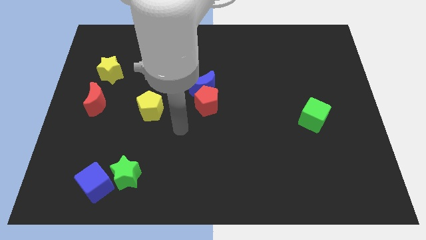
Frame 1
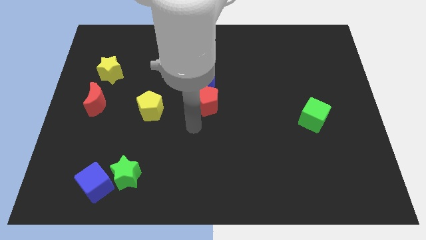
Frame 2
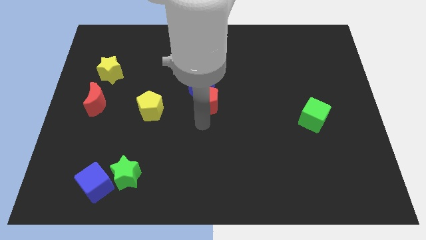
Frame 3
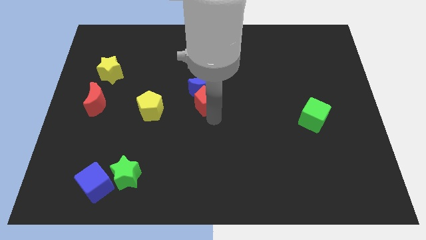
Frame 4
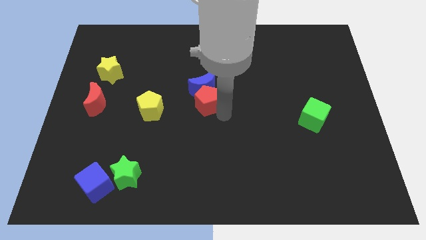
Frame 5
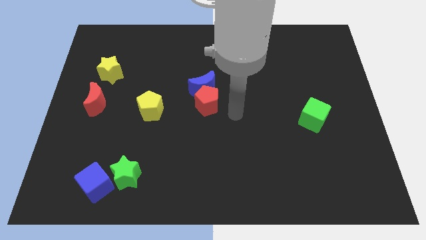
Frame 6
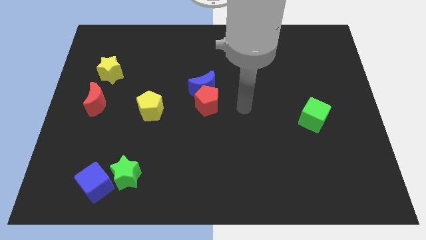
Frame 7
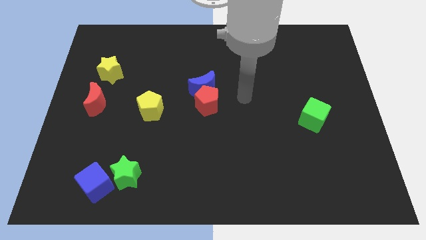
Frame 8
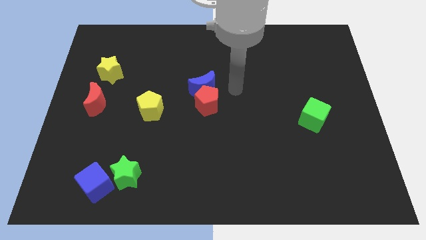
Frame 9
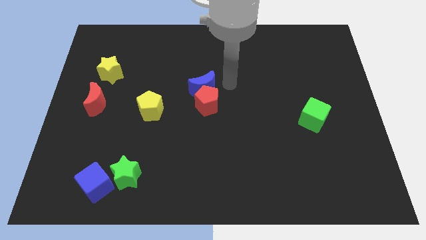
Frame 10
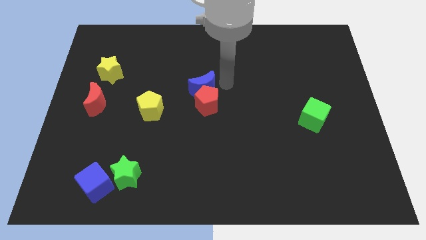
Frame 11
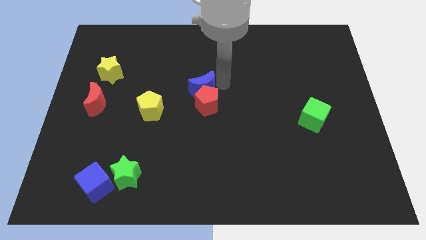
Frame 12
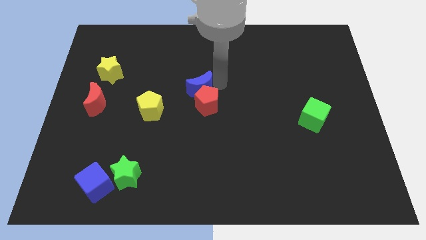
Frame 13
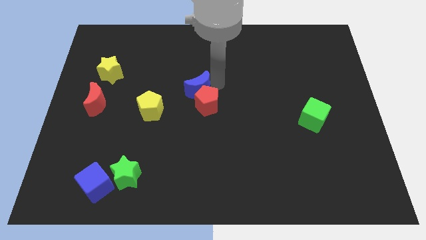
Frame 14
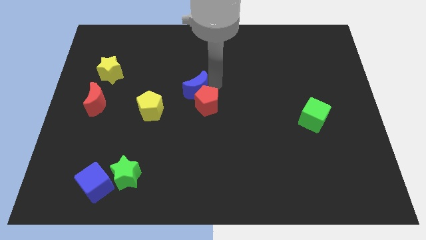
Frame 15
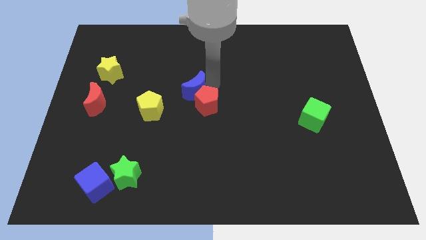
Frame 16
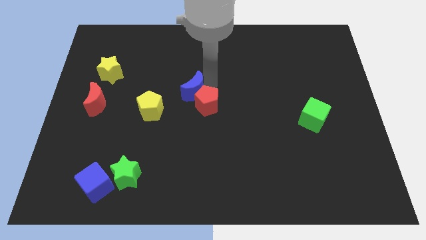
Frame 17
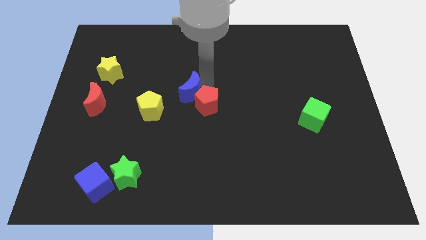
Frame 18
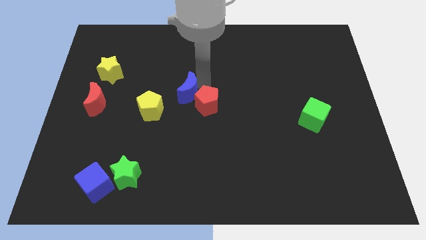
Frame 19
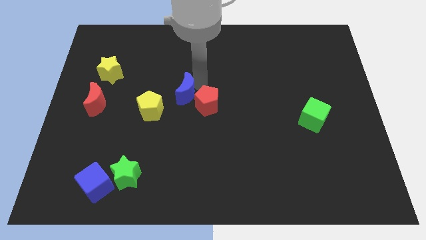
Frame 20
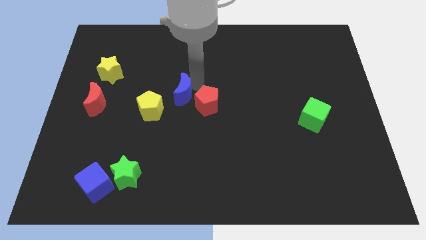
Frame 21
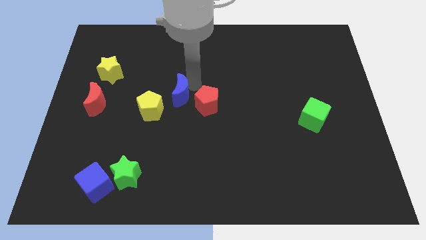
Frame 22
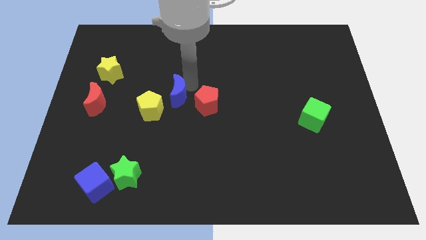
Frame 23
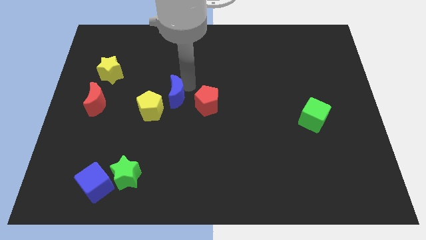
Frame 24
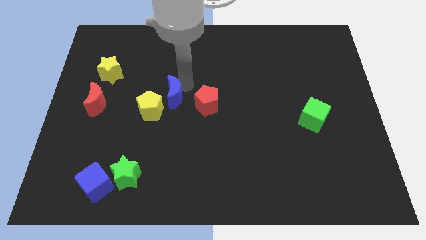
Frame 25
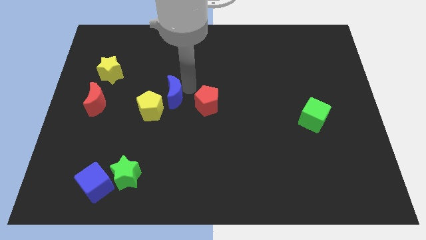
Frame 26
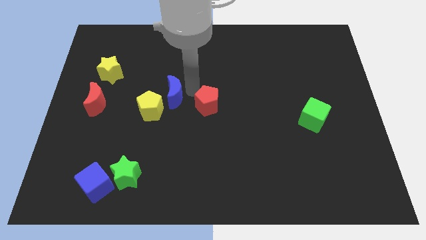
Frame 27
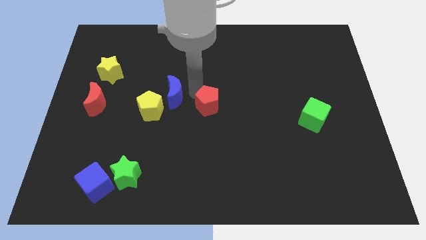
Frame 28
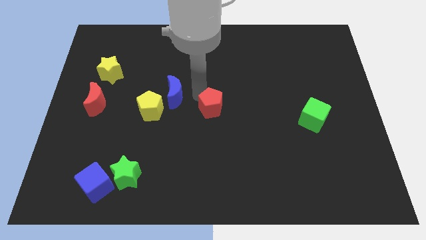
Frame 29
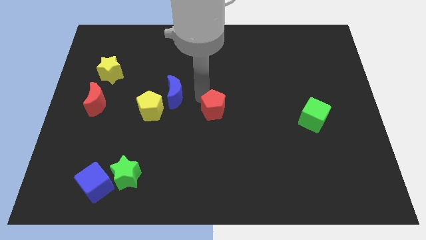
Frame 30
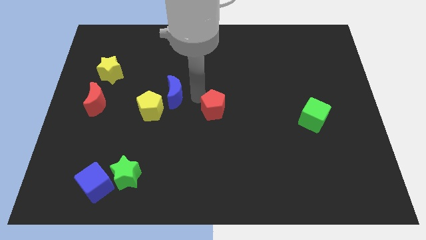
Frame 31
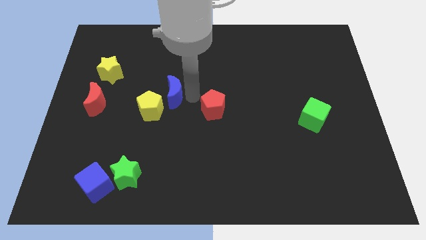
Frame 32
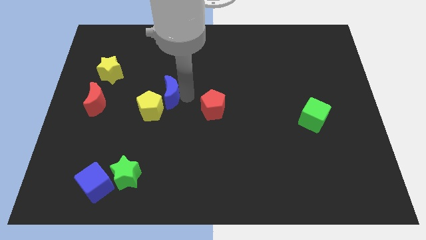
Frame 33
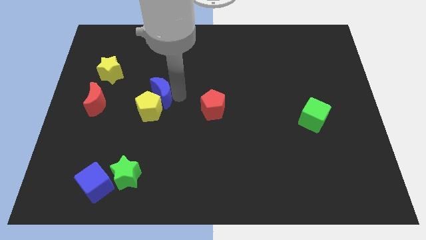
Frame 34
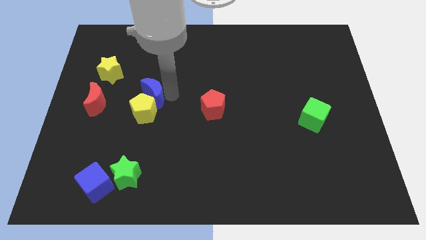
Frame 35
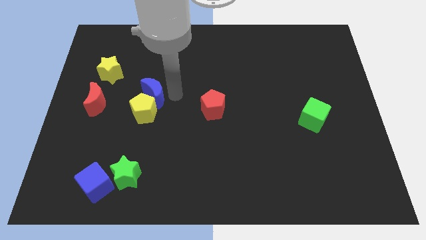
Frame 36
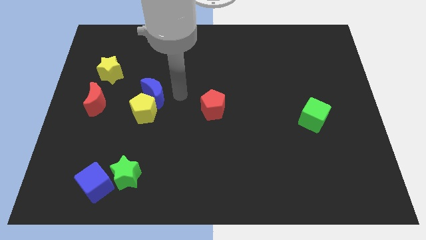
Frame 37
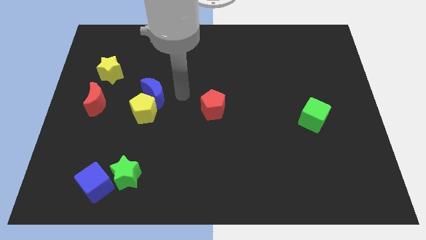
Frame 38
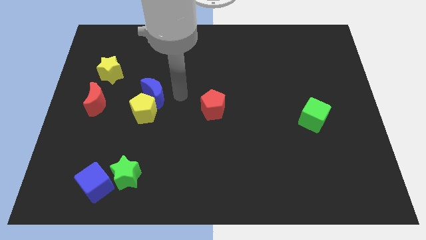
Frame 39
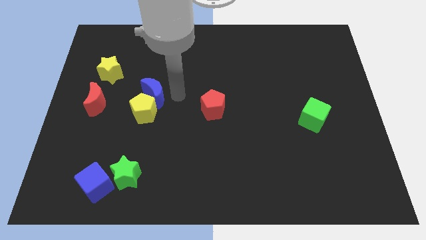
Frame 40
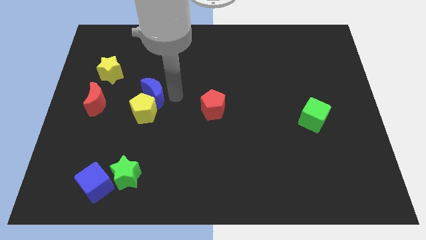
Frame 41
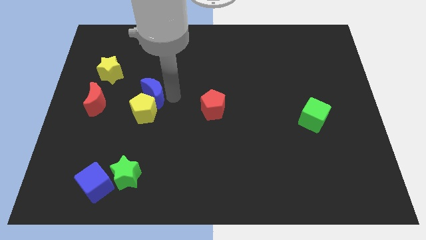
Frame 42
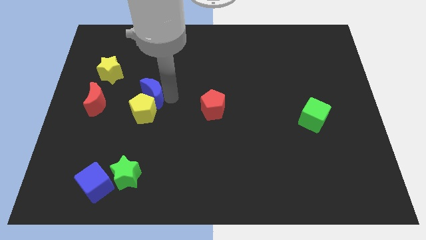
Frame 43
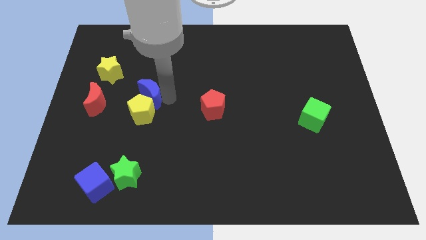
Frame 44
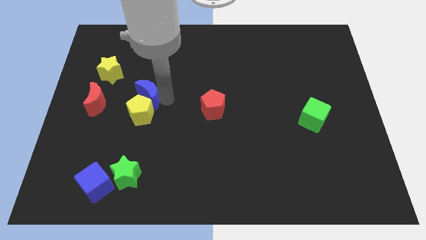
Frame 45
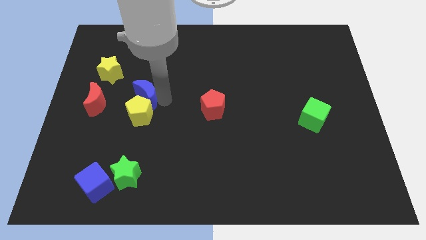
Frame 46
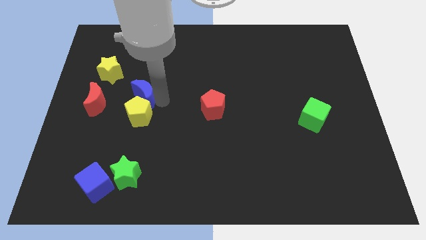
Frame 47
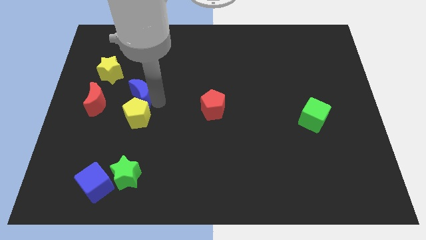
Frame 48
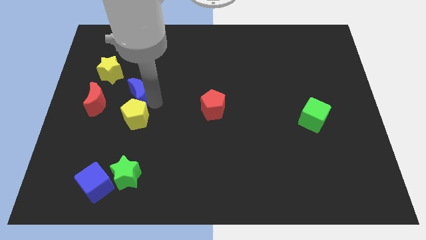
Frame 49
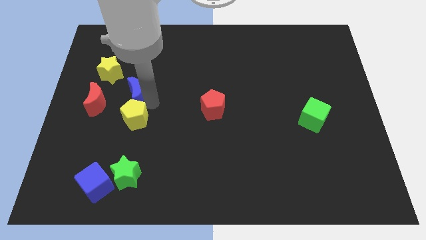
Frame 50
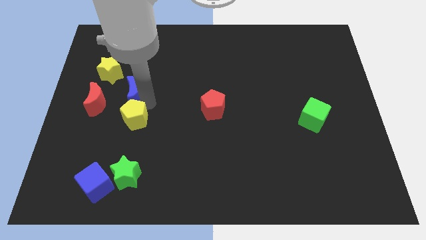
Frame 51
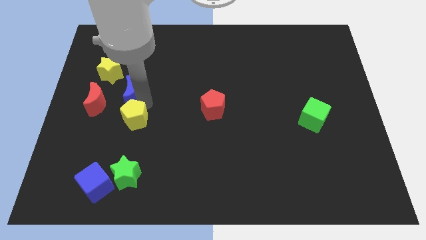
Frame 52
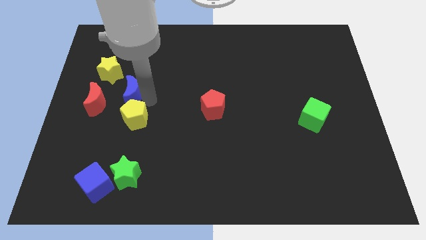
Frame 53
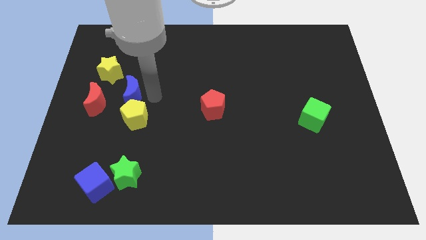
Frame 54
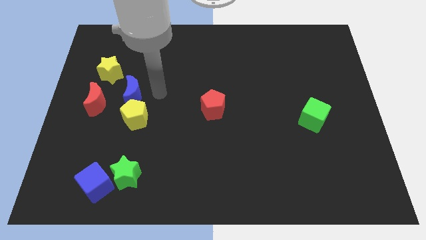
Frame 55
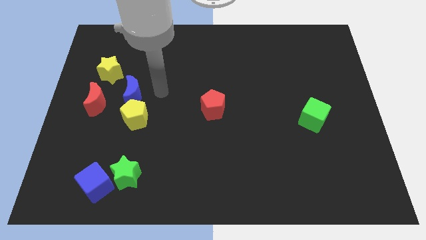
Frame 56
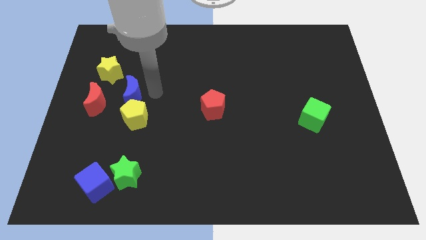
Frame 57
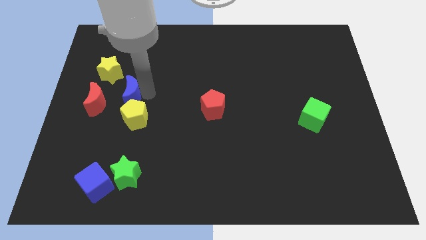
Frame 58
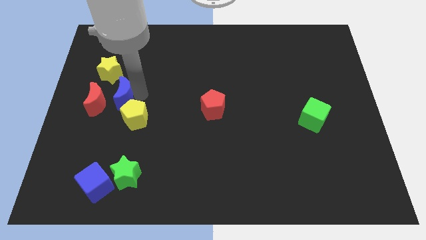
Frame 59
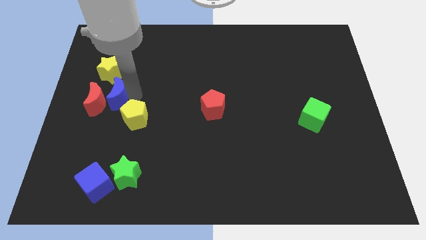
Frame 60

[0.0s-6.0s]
move the blue moon close to the red moon
